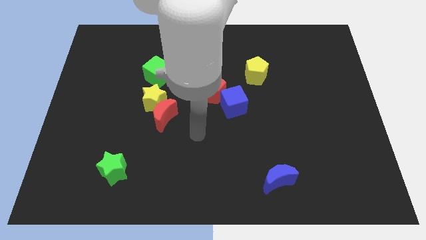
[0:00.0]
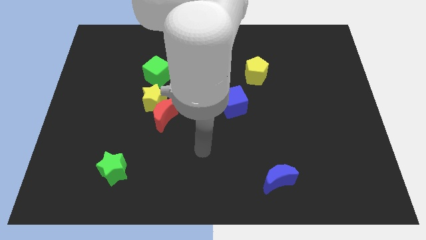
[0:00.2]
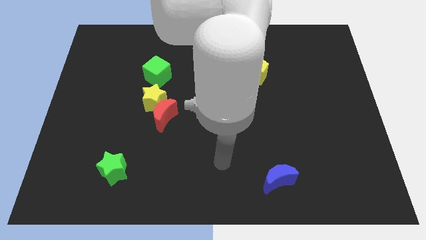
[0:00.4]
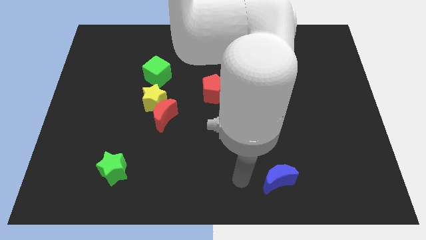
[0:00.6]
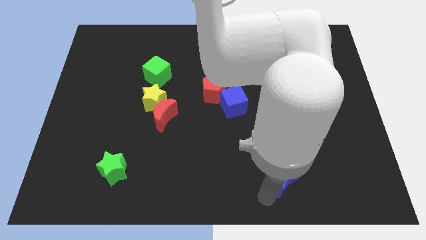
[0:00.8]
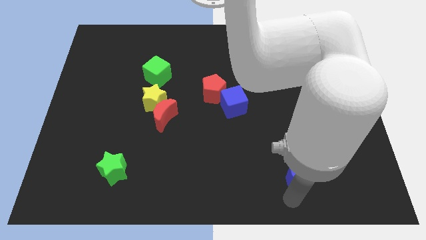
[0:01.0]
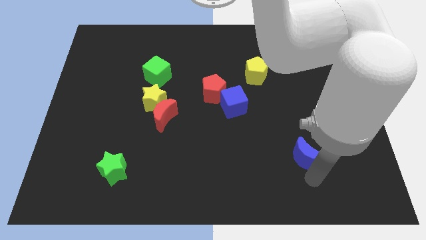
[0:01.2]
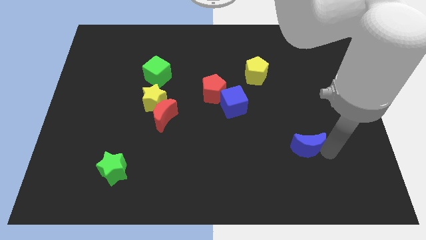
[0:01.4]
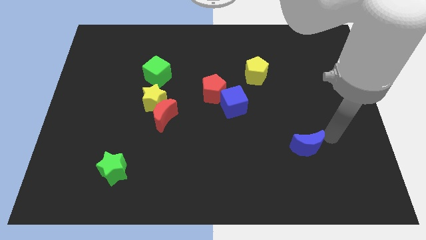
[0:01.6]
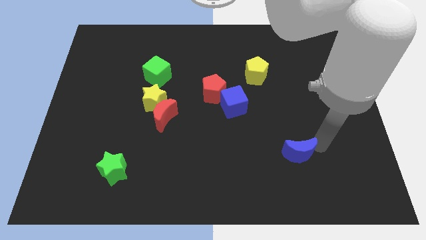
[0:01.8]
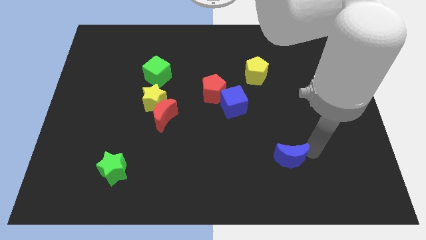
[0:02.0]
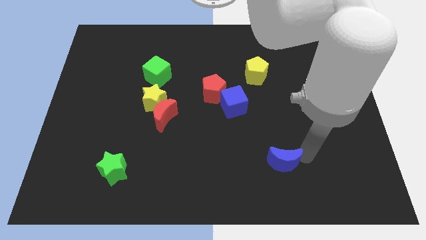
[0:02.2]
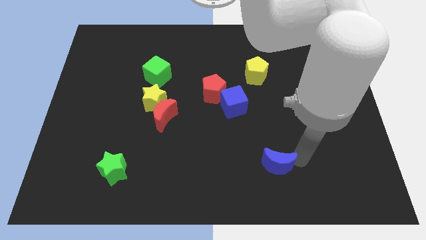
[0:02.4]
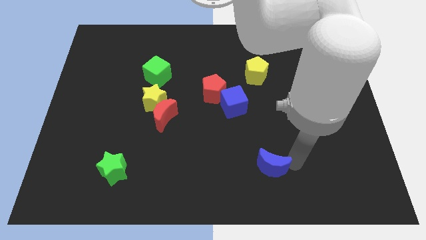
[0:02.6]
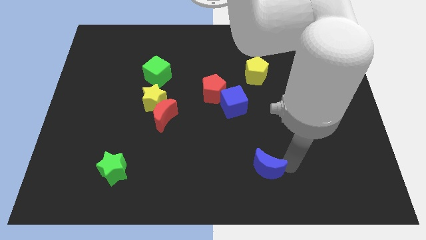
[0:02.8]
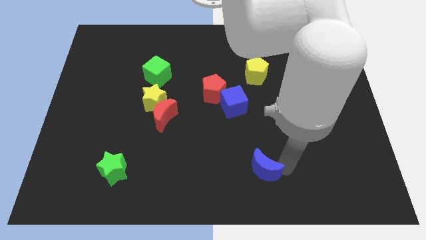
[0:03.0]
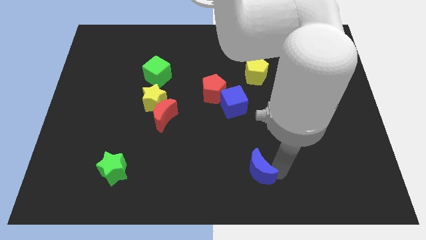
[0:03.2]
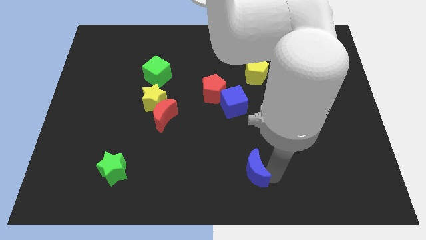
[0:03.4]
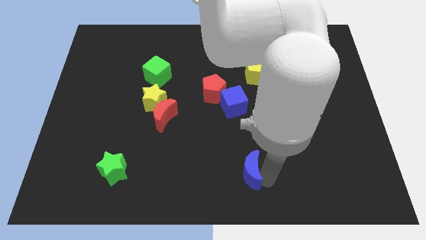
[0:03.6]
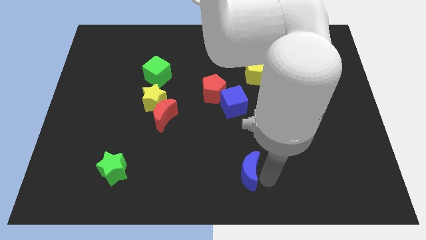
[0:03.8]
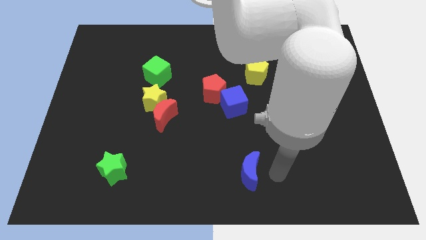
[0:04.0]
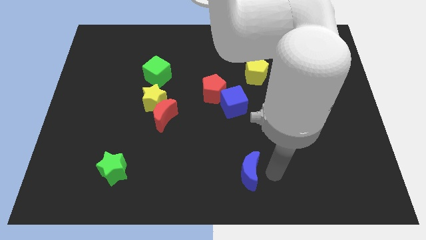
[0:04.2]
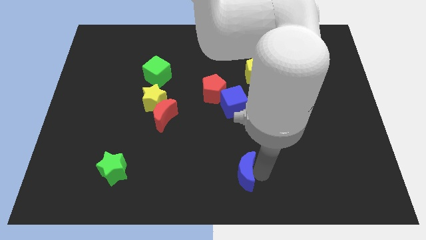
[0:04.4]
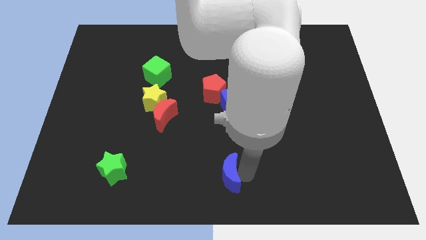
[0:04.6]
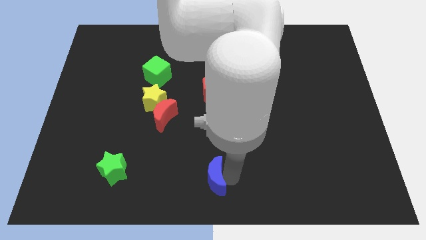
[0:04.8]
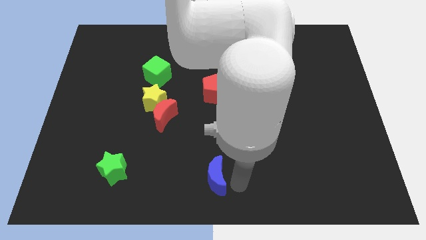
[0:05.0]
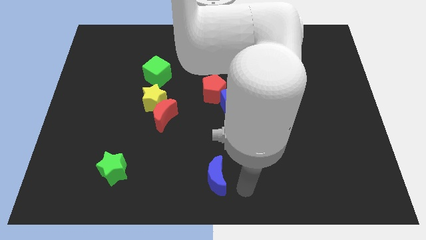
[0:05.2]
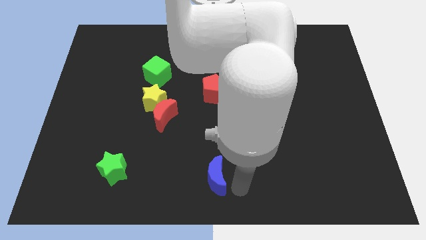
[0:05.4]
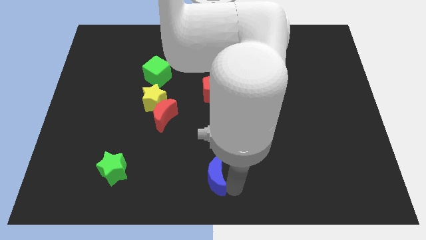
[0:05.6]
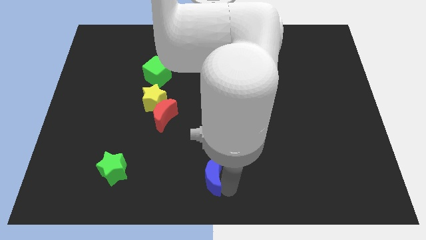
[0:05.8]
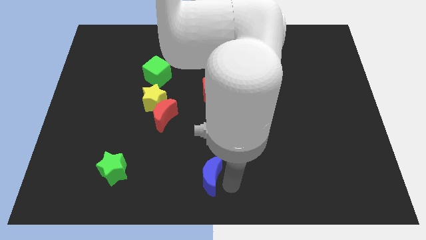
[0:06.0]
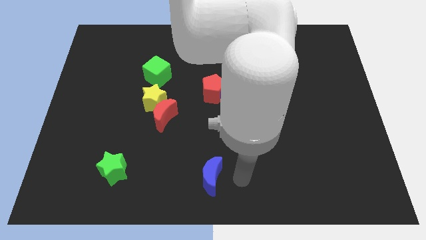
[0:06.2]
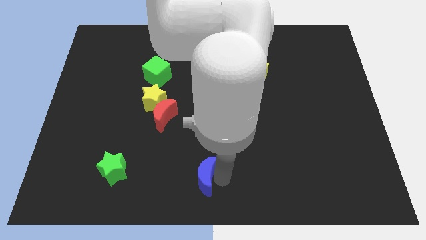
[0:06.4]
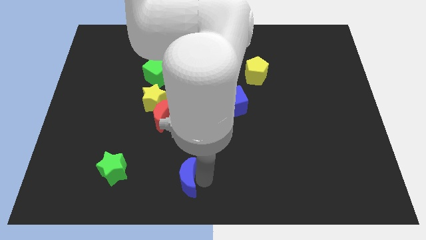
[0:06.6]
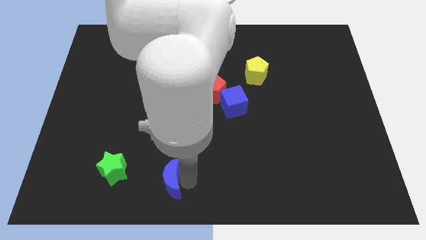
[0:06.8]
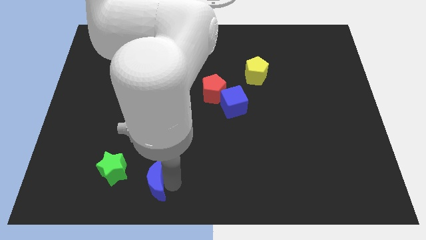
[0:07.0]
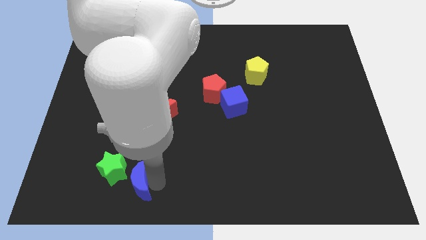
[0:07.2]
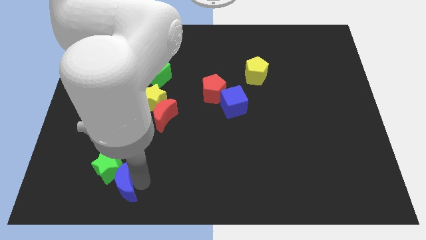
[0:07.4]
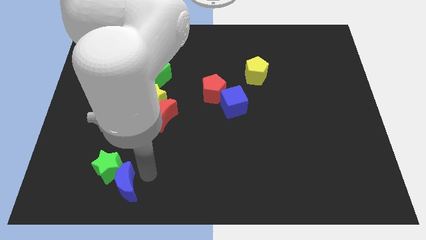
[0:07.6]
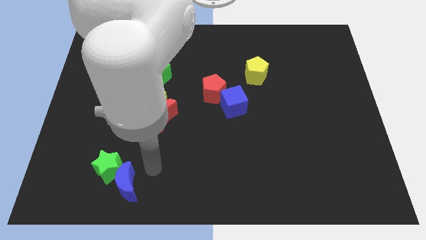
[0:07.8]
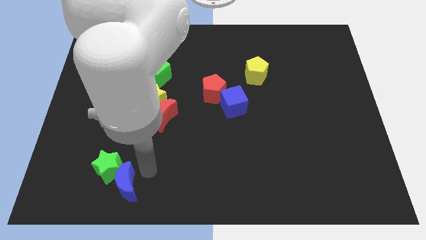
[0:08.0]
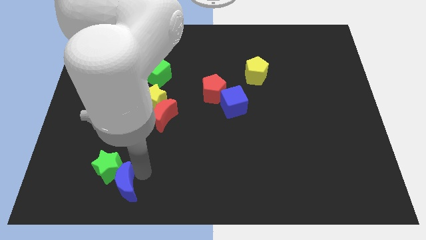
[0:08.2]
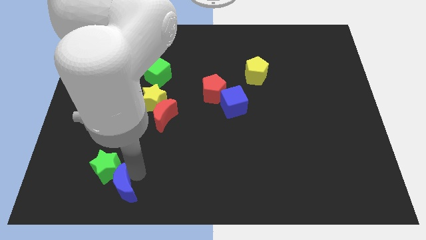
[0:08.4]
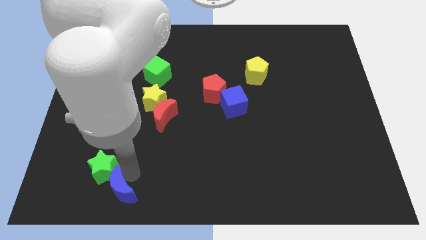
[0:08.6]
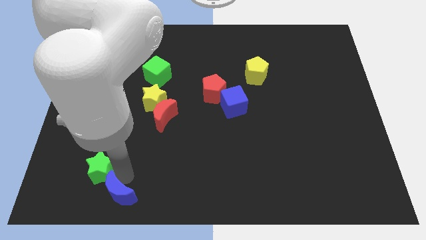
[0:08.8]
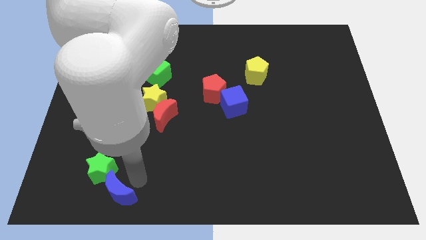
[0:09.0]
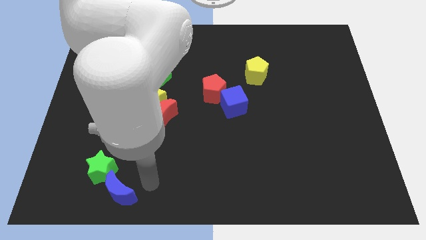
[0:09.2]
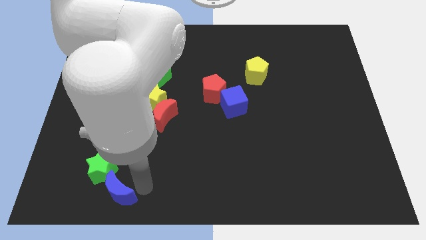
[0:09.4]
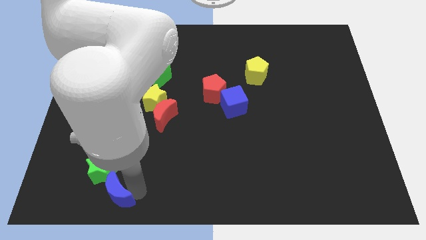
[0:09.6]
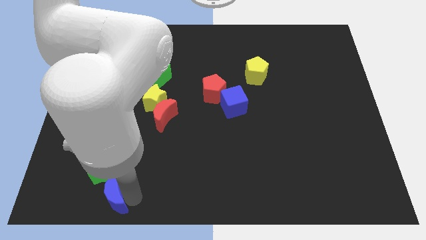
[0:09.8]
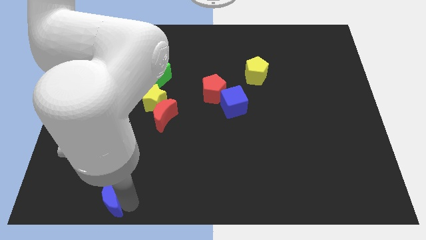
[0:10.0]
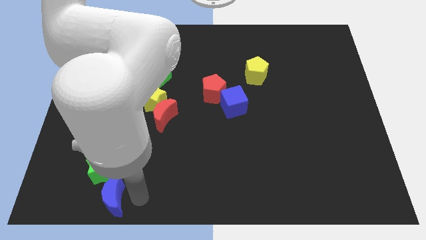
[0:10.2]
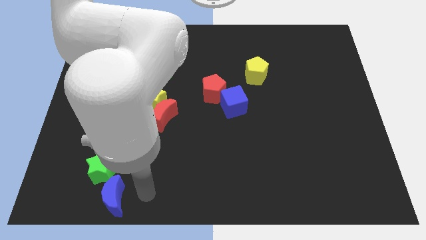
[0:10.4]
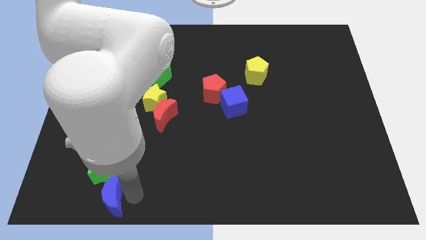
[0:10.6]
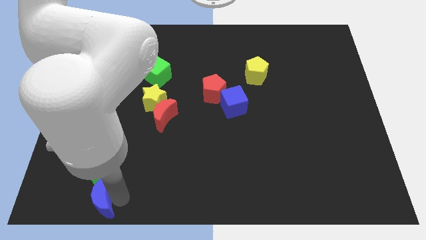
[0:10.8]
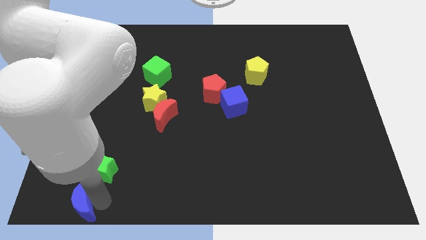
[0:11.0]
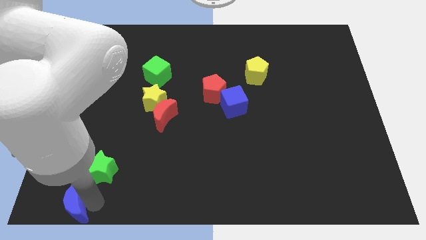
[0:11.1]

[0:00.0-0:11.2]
put the blue moon to the bottom left corner
